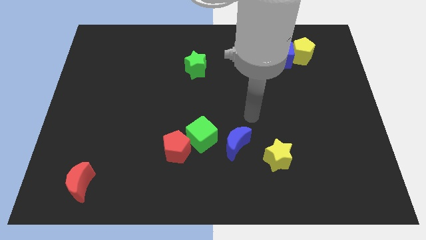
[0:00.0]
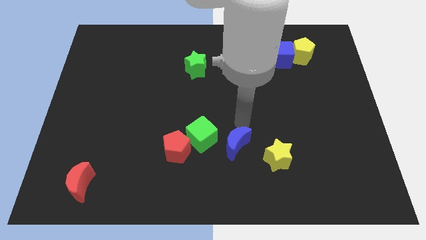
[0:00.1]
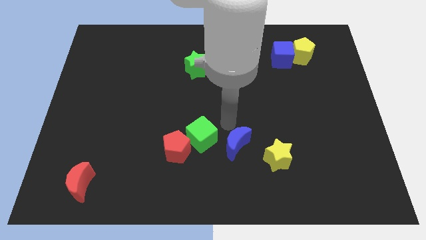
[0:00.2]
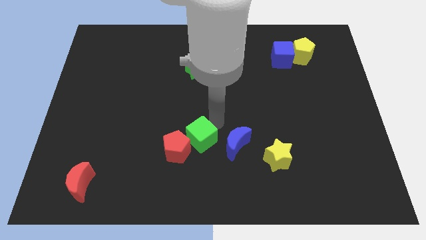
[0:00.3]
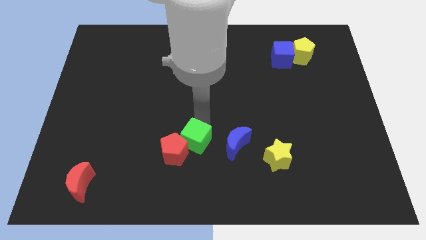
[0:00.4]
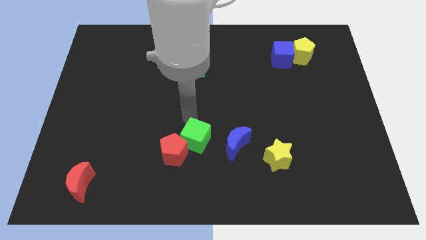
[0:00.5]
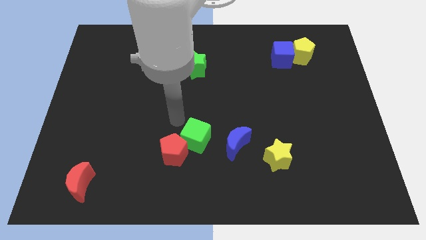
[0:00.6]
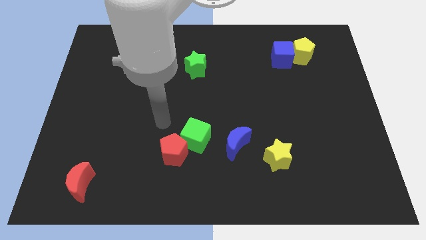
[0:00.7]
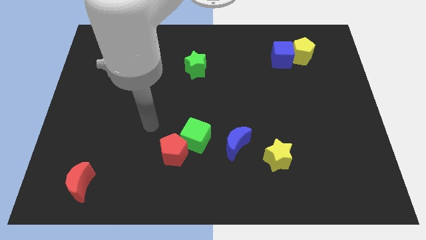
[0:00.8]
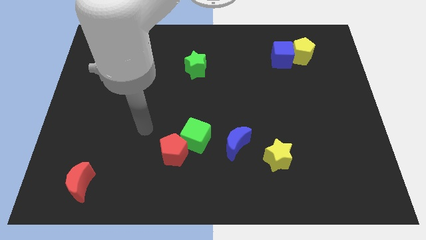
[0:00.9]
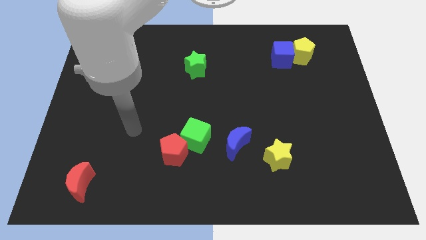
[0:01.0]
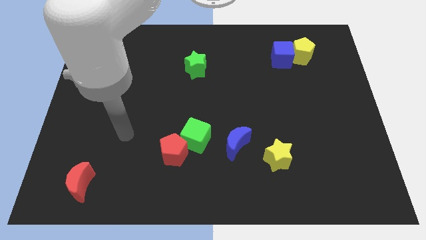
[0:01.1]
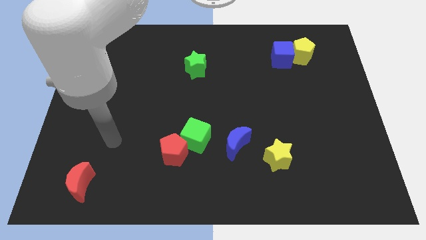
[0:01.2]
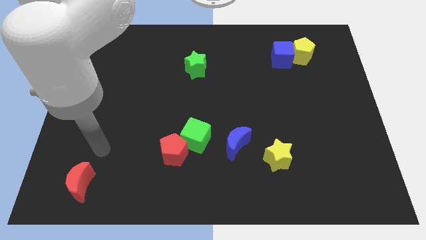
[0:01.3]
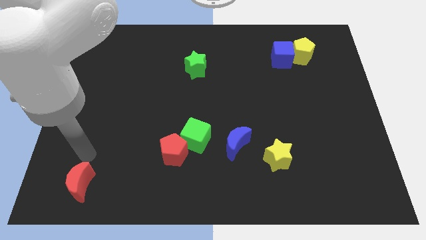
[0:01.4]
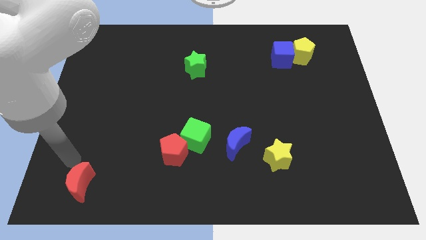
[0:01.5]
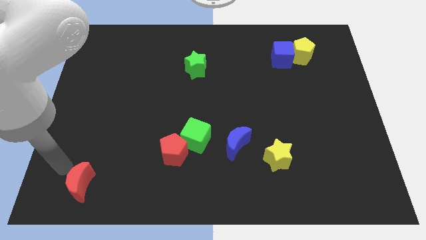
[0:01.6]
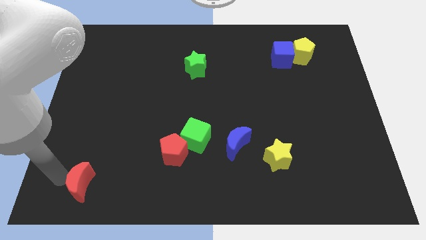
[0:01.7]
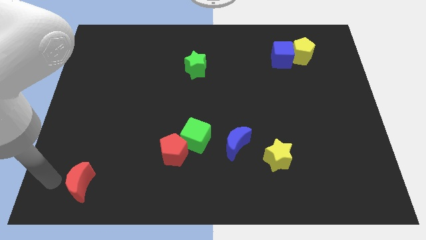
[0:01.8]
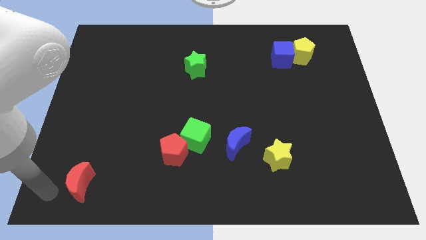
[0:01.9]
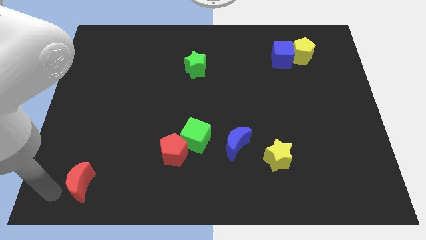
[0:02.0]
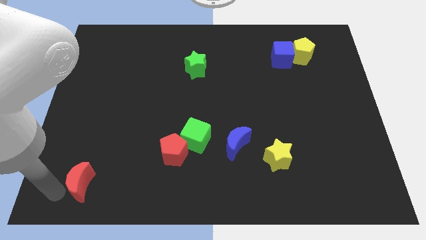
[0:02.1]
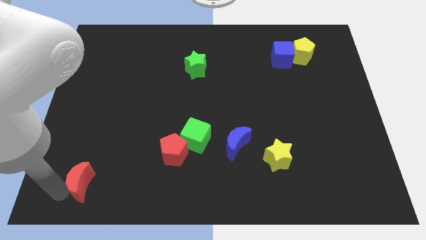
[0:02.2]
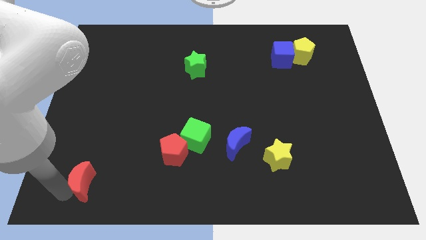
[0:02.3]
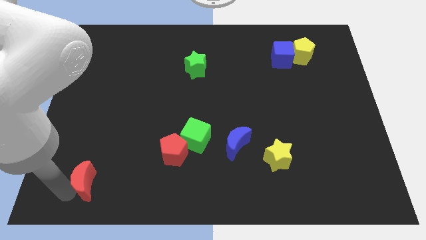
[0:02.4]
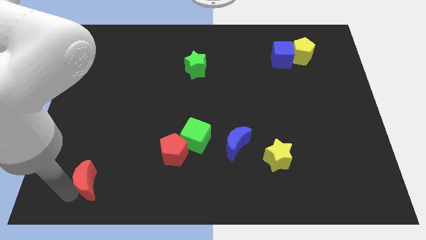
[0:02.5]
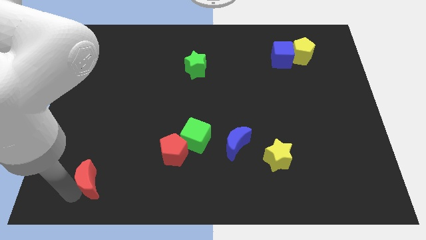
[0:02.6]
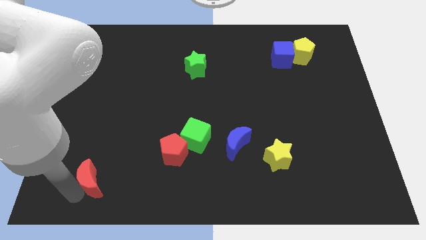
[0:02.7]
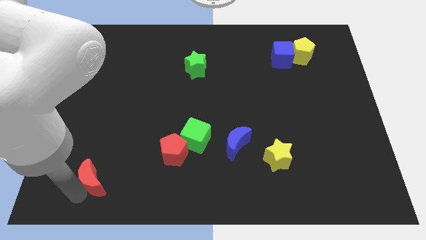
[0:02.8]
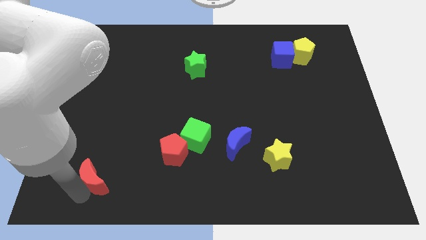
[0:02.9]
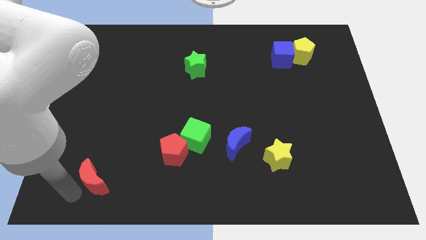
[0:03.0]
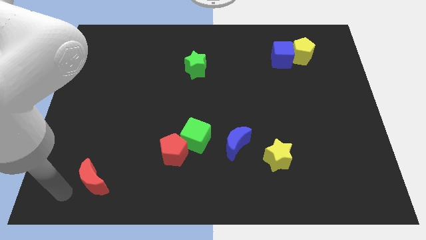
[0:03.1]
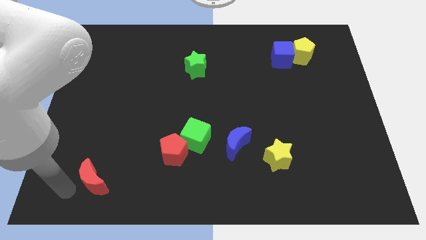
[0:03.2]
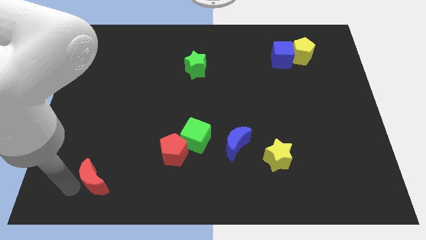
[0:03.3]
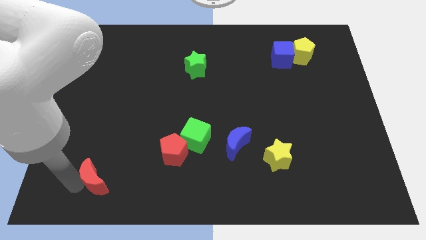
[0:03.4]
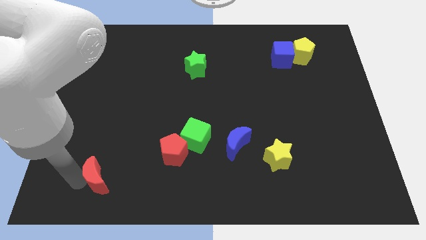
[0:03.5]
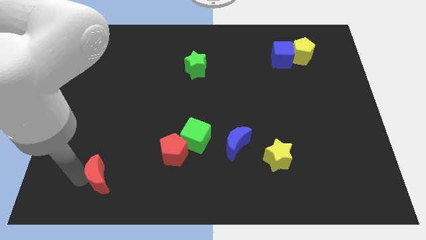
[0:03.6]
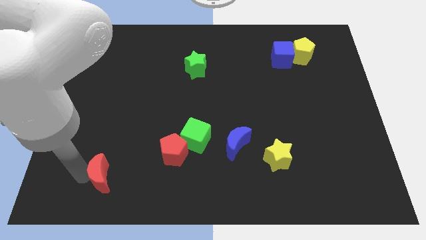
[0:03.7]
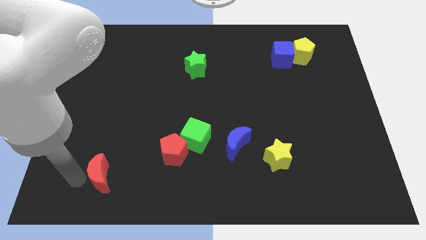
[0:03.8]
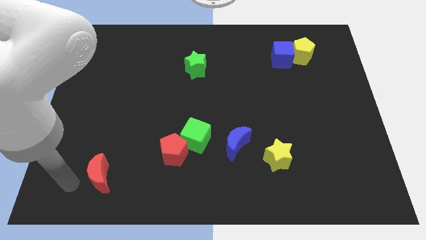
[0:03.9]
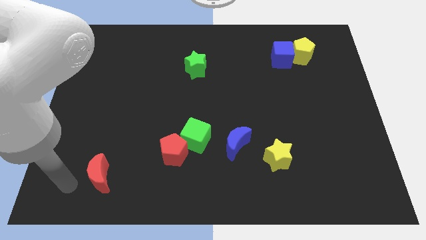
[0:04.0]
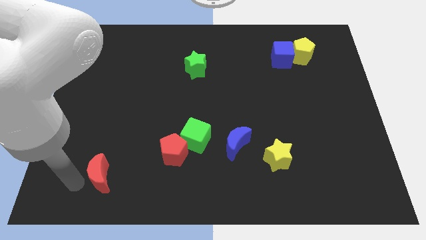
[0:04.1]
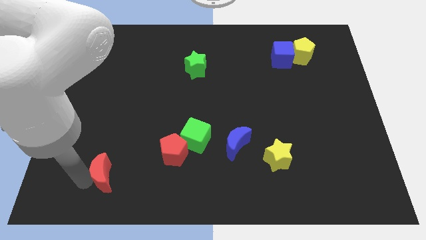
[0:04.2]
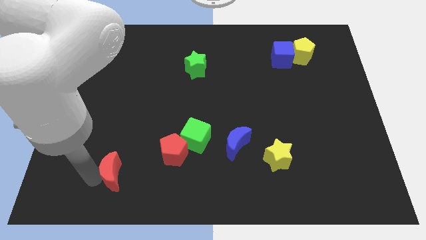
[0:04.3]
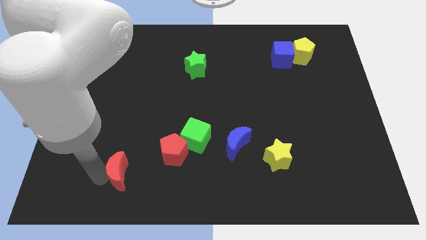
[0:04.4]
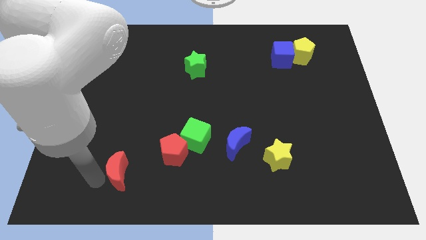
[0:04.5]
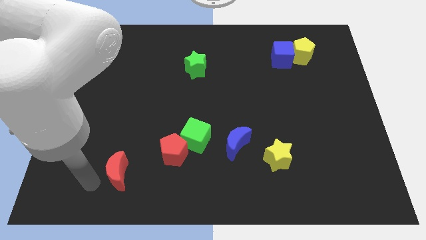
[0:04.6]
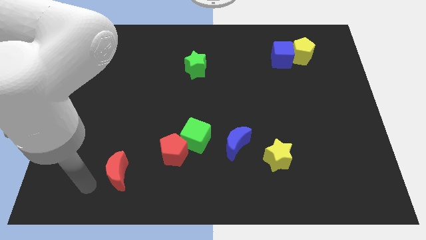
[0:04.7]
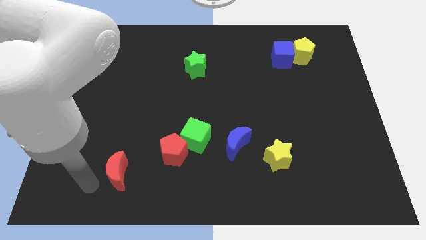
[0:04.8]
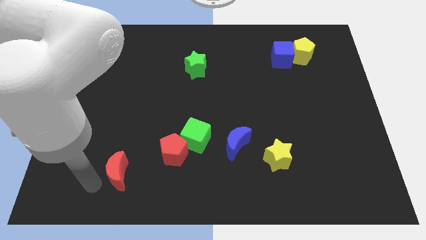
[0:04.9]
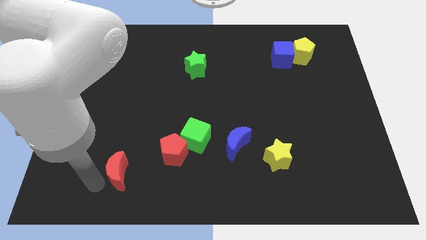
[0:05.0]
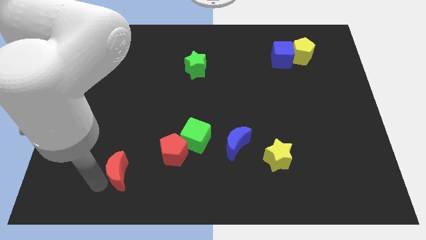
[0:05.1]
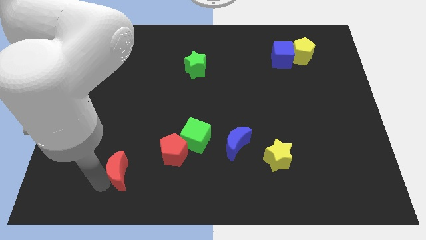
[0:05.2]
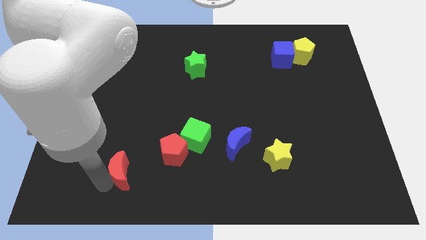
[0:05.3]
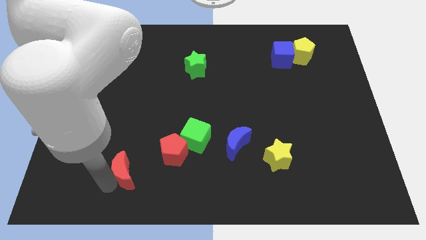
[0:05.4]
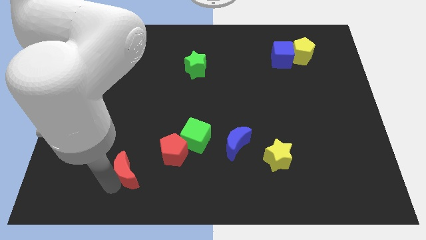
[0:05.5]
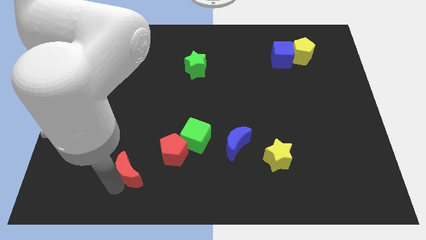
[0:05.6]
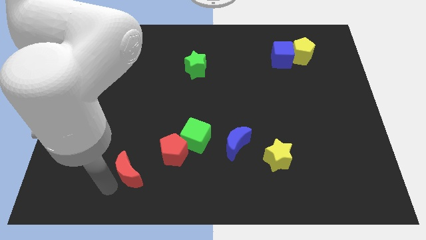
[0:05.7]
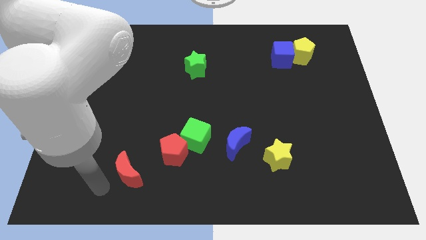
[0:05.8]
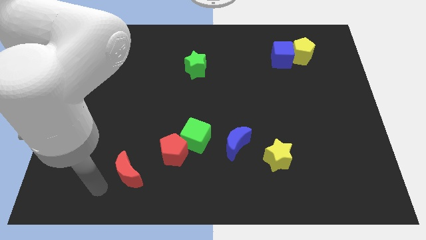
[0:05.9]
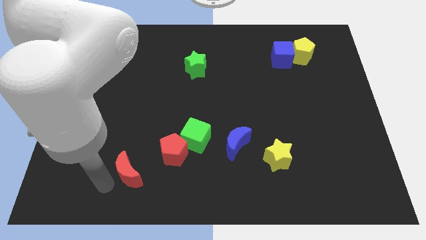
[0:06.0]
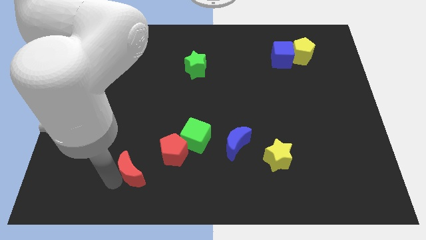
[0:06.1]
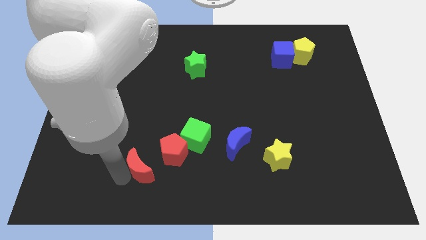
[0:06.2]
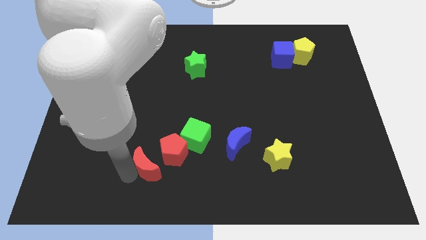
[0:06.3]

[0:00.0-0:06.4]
put the red moon diagonally down and to the left of the green cube

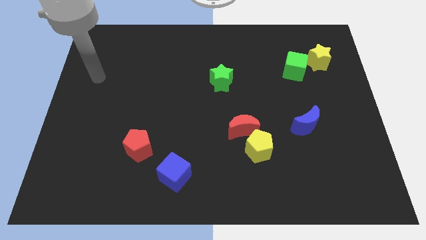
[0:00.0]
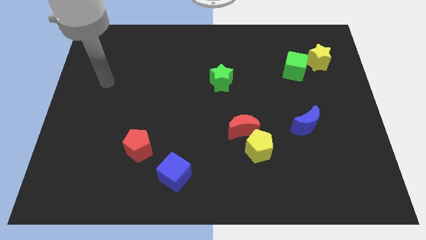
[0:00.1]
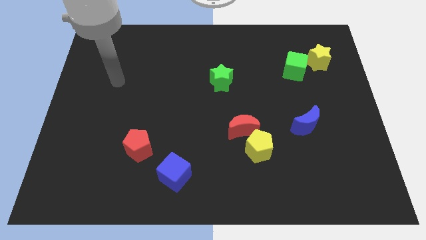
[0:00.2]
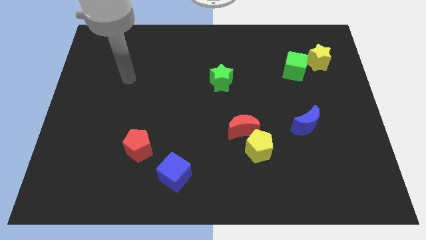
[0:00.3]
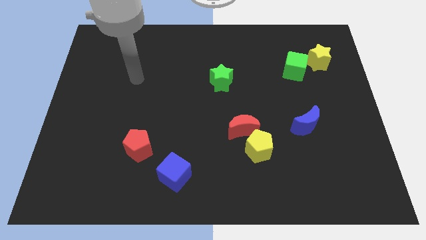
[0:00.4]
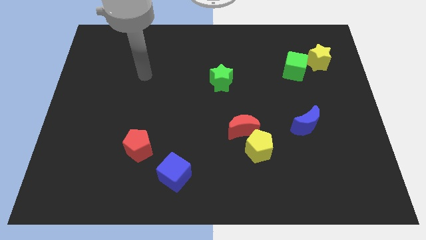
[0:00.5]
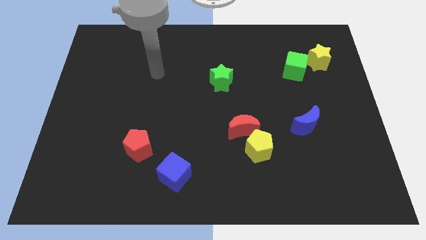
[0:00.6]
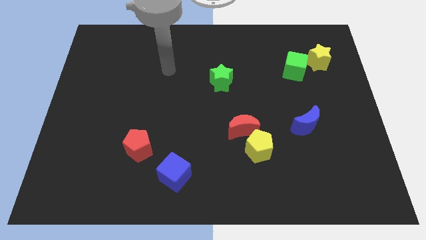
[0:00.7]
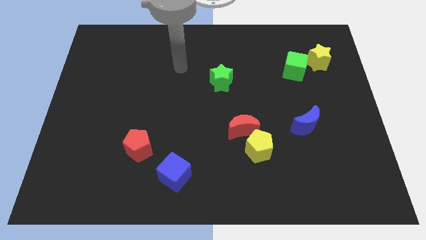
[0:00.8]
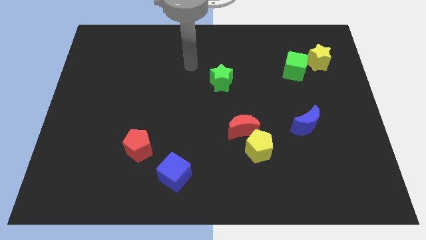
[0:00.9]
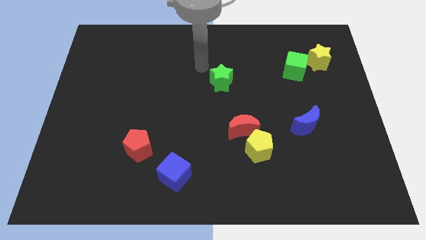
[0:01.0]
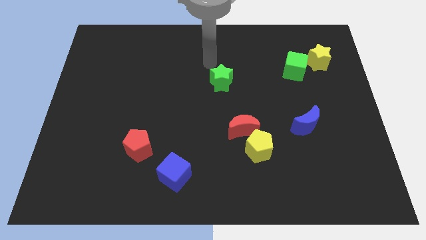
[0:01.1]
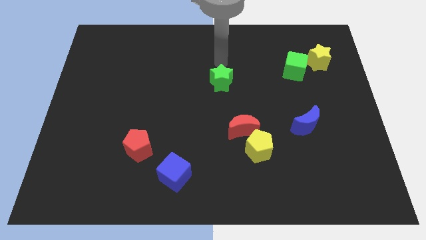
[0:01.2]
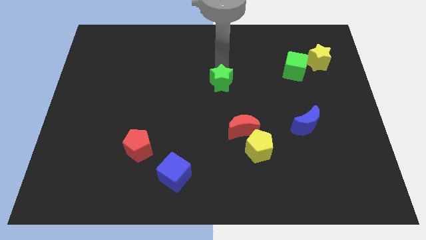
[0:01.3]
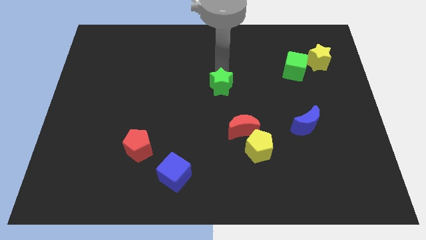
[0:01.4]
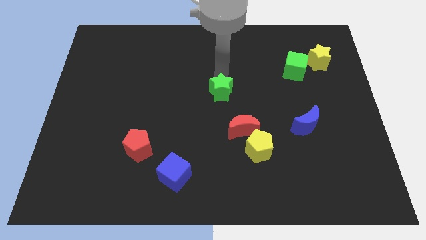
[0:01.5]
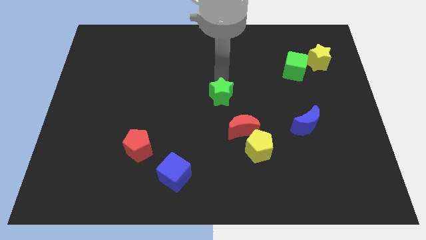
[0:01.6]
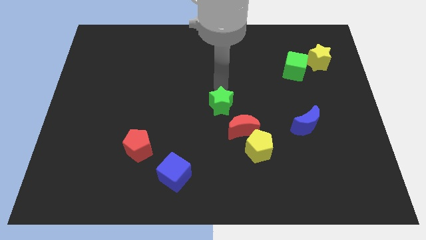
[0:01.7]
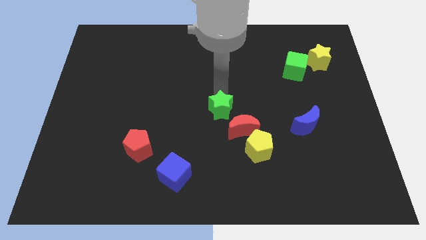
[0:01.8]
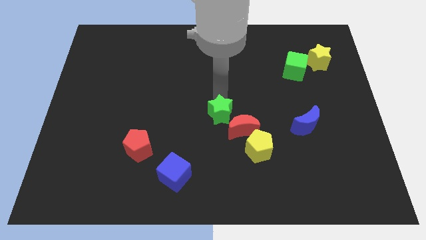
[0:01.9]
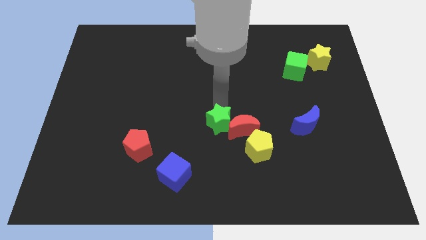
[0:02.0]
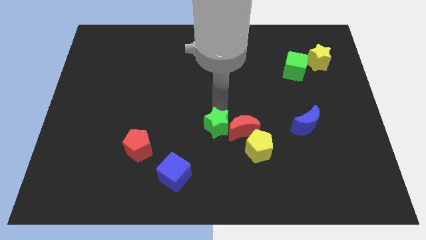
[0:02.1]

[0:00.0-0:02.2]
put the green star to the bottom left side of the red moon
